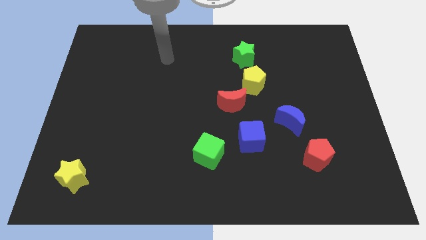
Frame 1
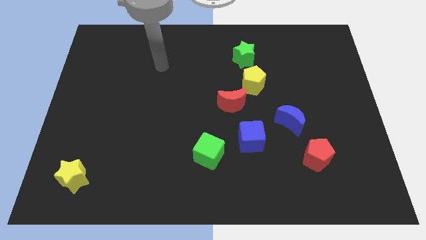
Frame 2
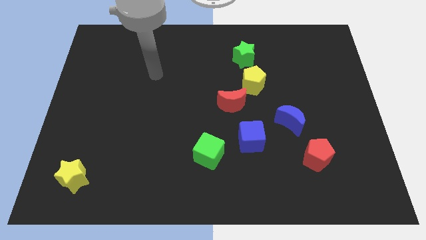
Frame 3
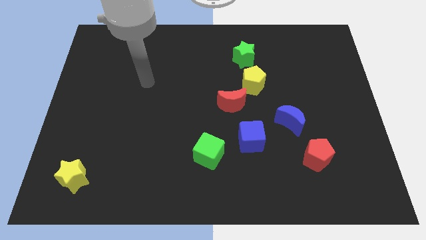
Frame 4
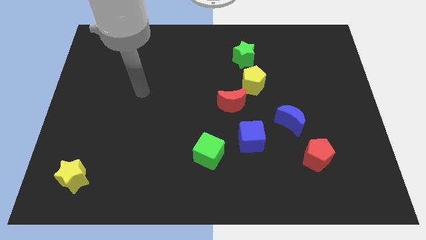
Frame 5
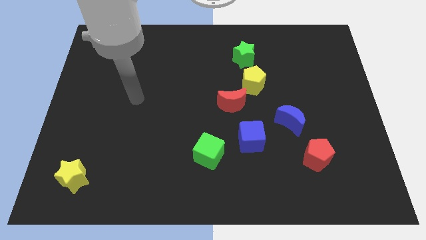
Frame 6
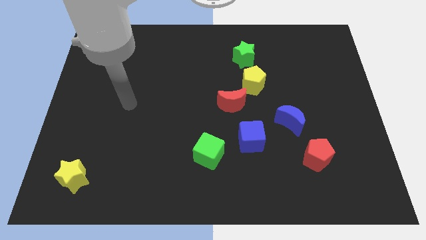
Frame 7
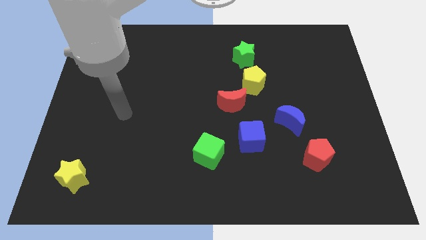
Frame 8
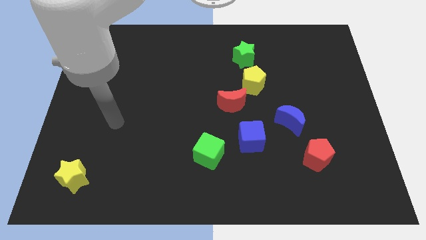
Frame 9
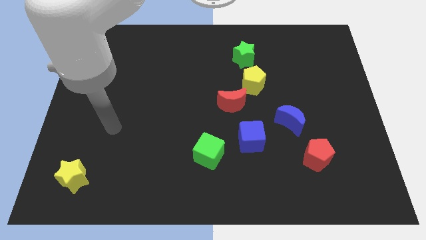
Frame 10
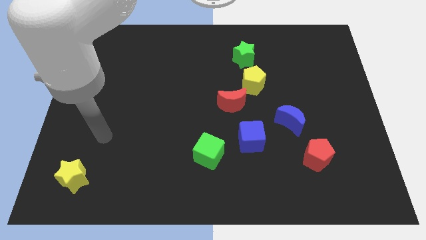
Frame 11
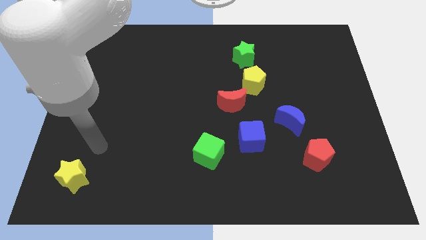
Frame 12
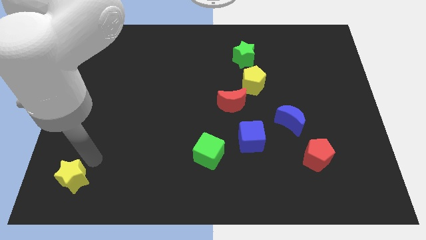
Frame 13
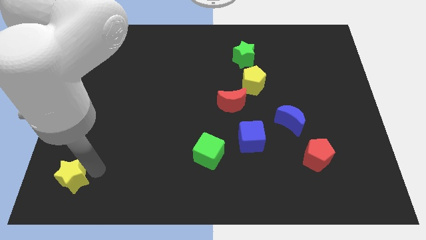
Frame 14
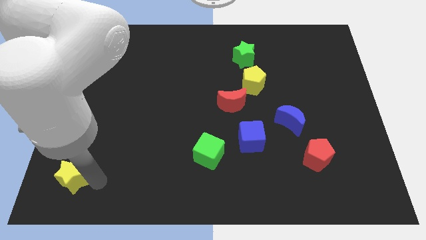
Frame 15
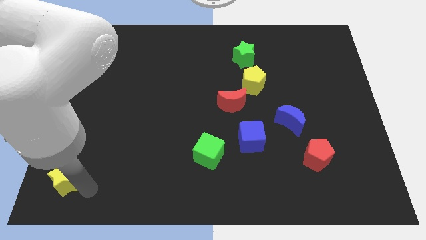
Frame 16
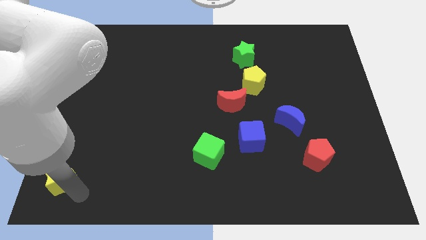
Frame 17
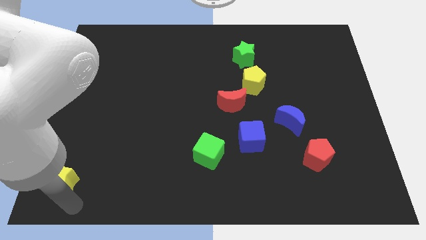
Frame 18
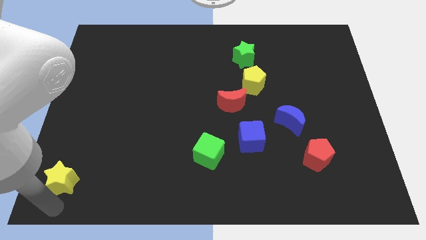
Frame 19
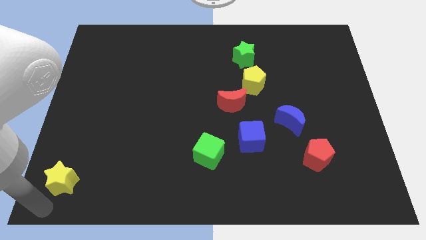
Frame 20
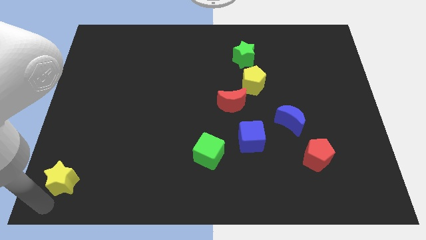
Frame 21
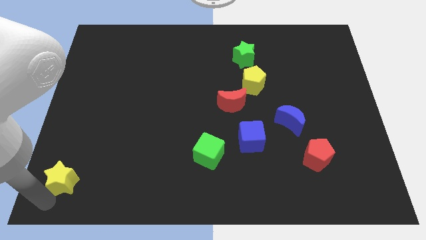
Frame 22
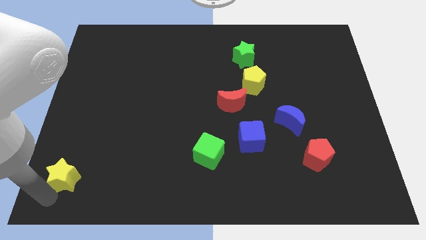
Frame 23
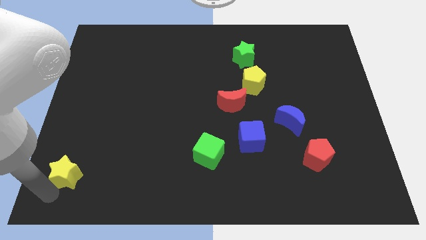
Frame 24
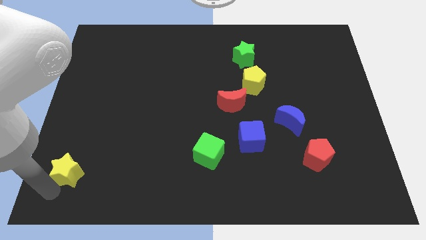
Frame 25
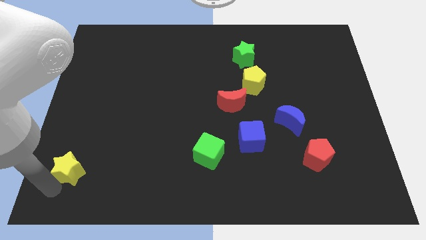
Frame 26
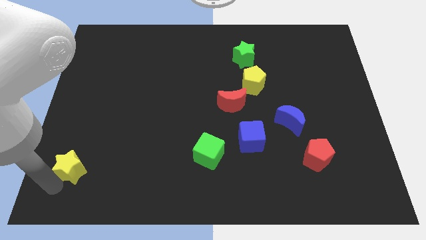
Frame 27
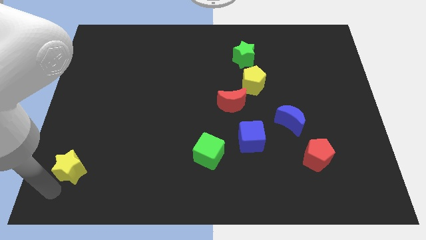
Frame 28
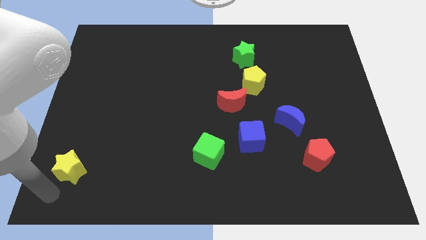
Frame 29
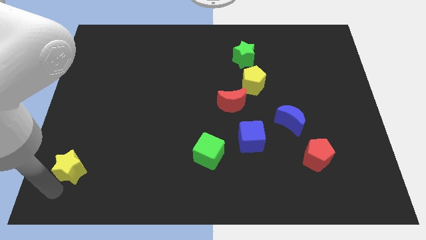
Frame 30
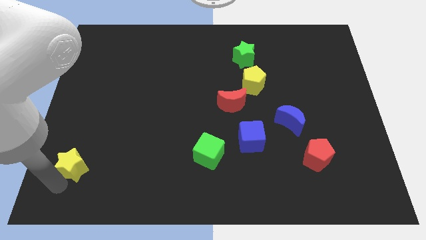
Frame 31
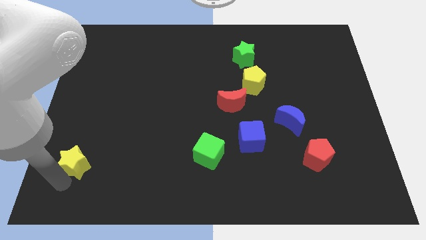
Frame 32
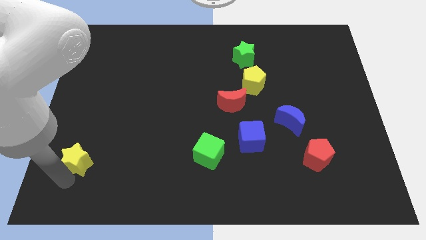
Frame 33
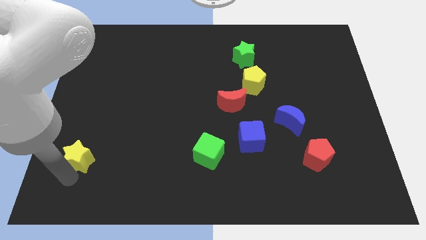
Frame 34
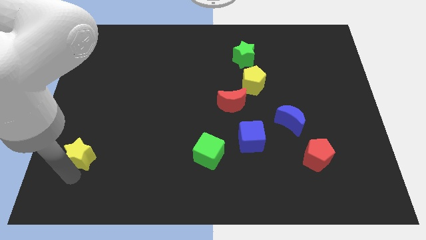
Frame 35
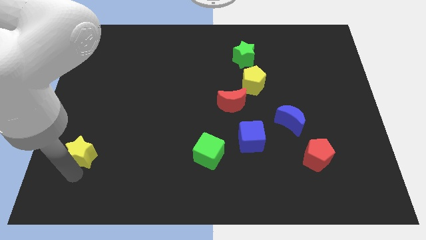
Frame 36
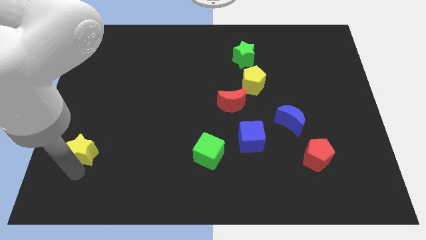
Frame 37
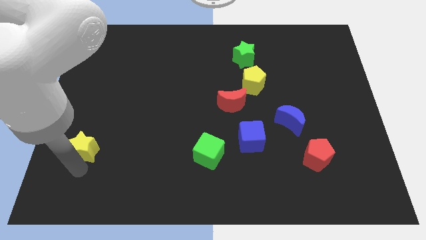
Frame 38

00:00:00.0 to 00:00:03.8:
slightly push the yellow star up

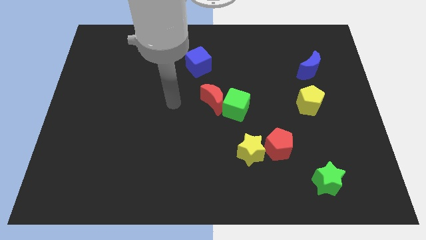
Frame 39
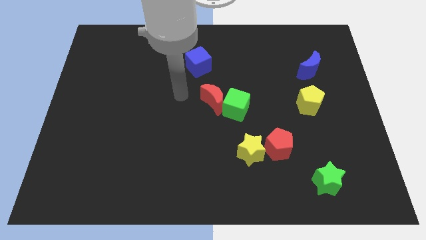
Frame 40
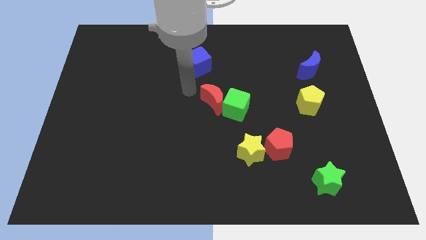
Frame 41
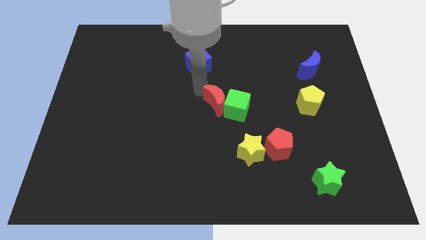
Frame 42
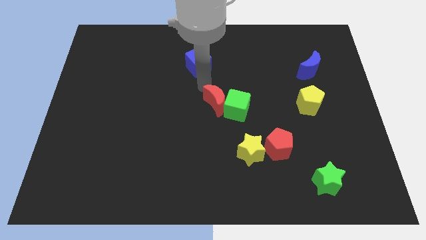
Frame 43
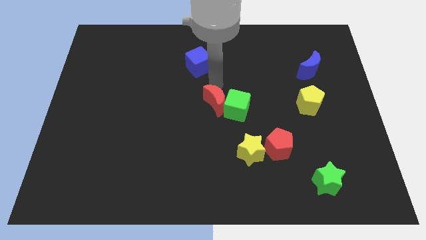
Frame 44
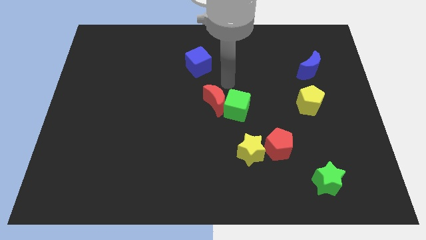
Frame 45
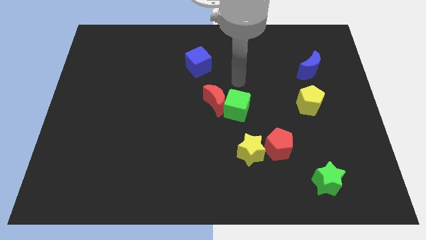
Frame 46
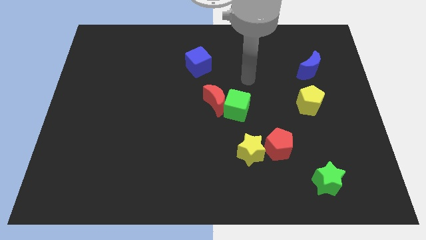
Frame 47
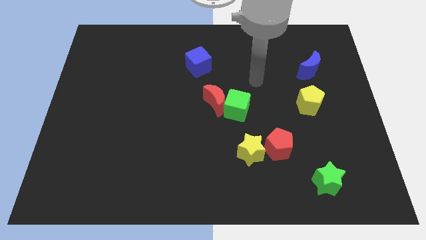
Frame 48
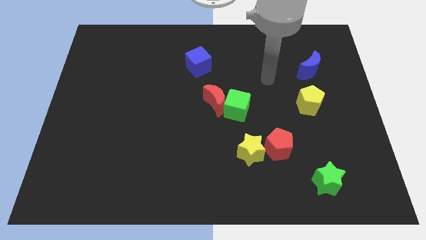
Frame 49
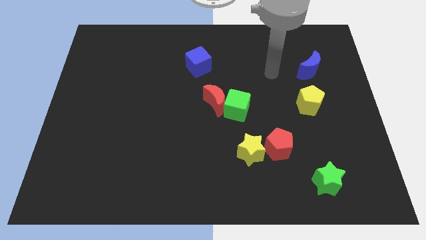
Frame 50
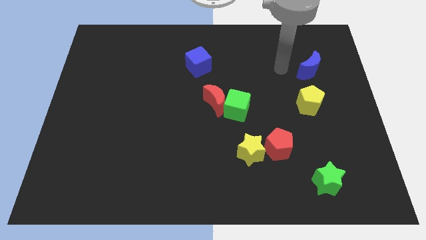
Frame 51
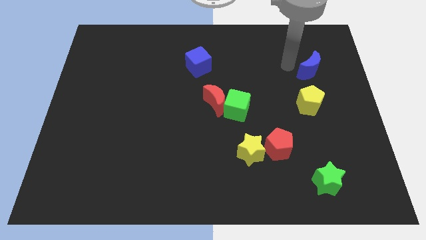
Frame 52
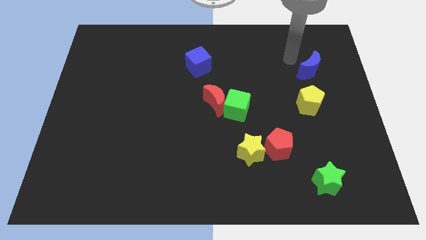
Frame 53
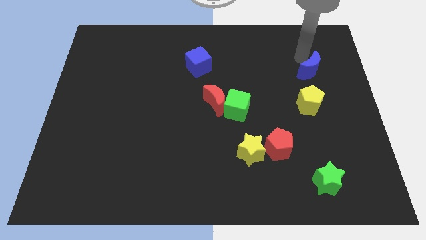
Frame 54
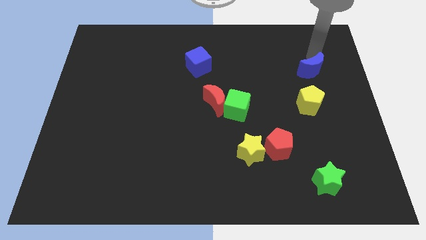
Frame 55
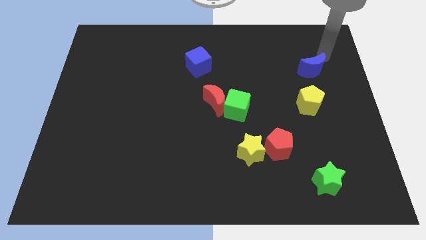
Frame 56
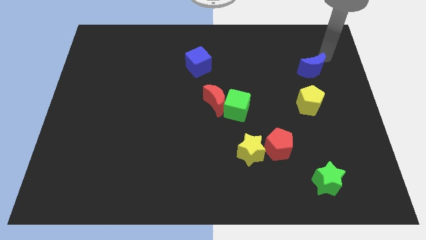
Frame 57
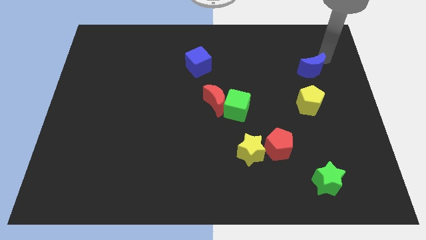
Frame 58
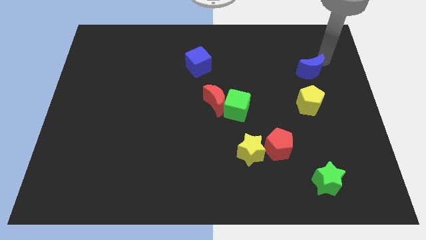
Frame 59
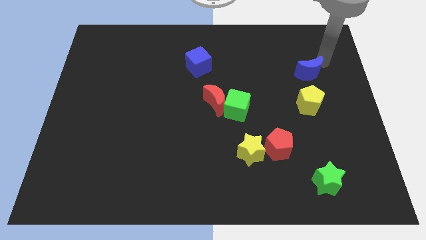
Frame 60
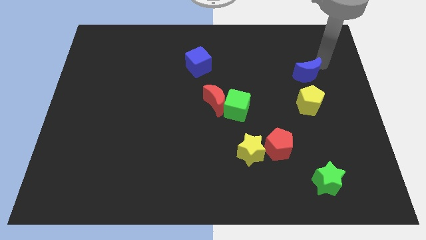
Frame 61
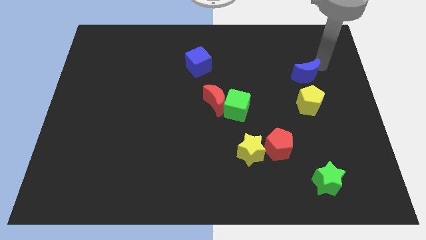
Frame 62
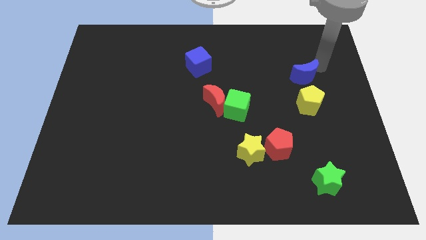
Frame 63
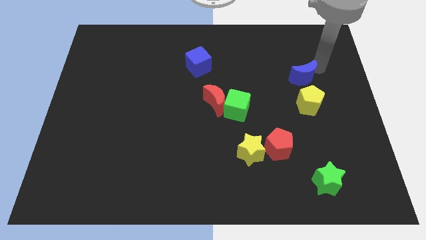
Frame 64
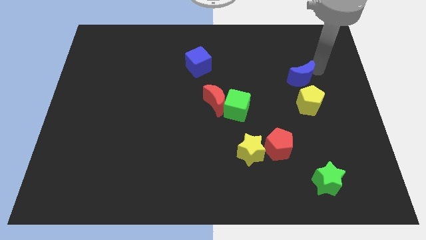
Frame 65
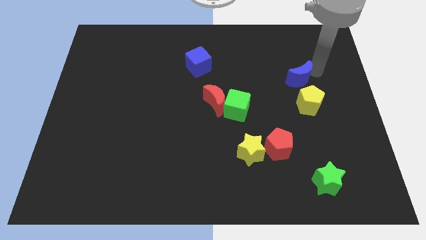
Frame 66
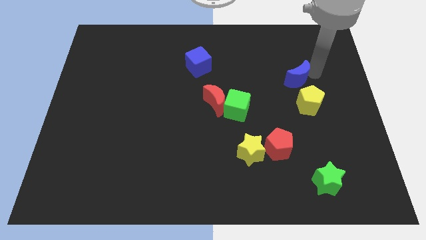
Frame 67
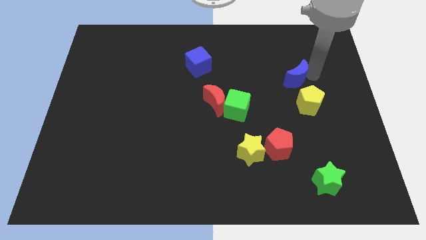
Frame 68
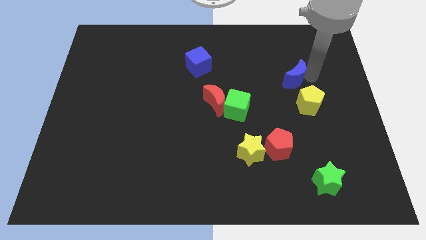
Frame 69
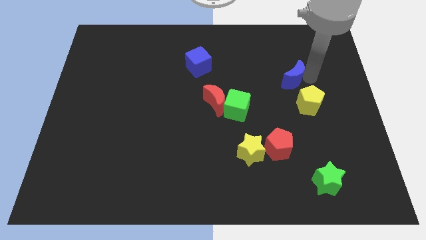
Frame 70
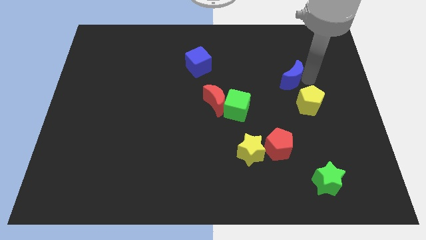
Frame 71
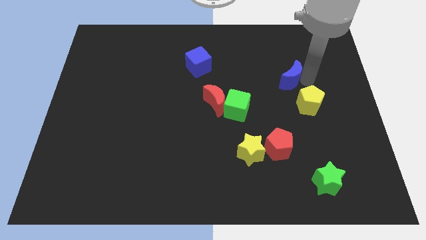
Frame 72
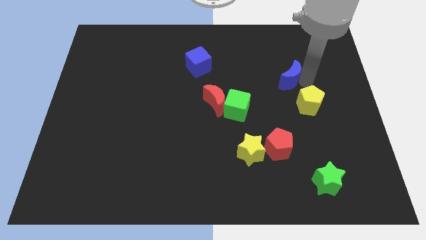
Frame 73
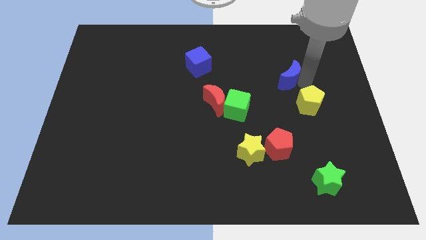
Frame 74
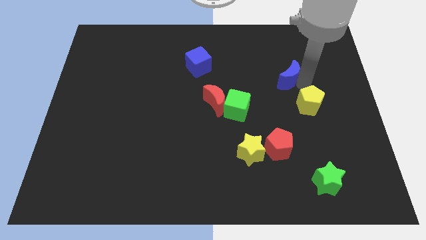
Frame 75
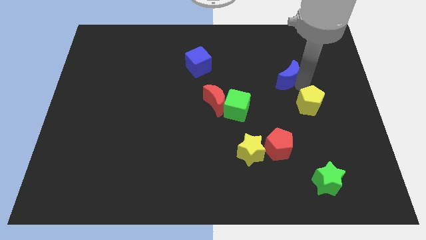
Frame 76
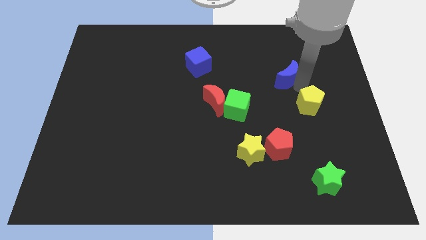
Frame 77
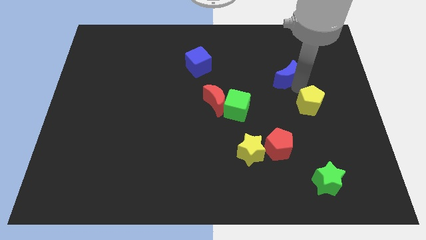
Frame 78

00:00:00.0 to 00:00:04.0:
slightly push the blue moon down and then to the left
